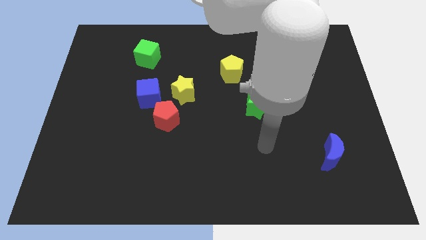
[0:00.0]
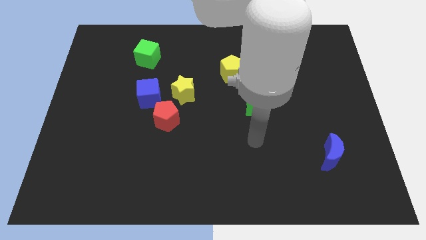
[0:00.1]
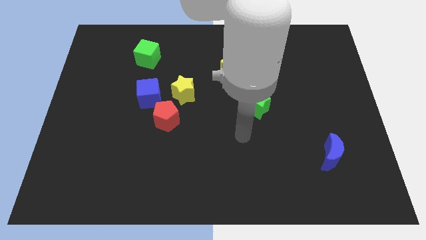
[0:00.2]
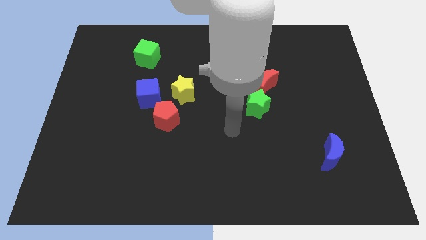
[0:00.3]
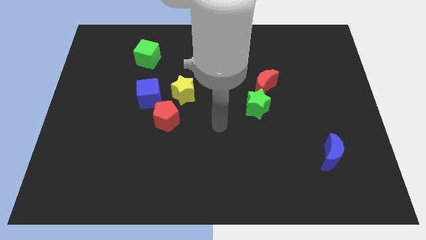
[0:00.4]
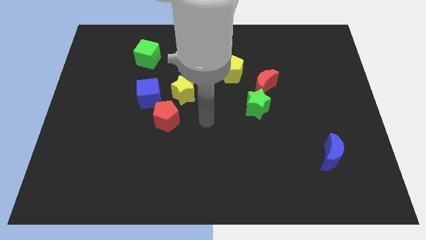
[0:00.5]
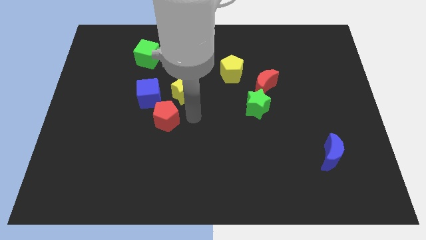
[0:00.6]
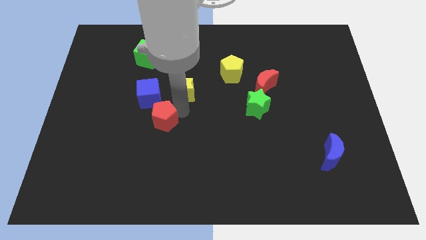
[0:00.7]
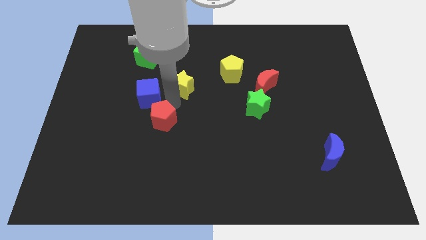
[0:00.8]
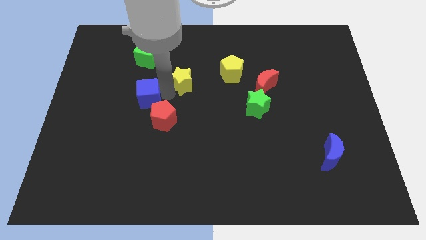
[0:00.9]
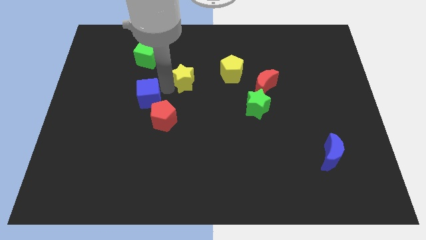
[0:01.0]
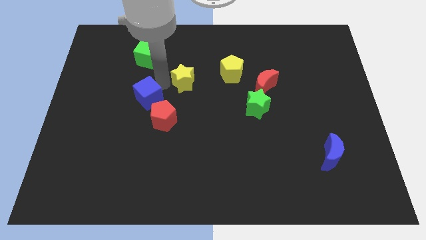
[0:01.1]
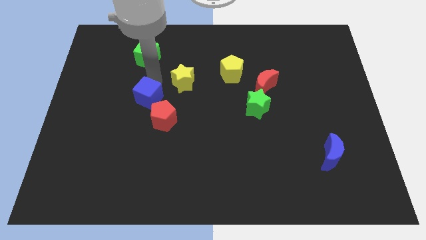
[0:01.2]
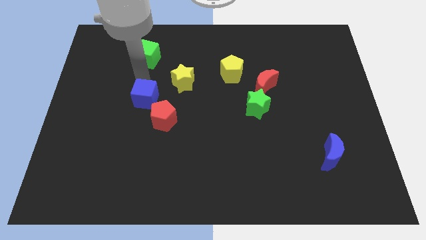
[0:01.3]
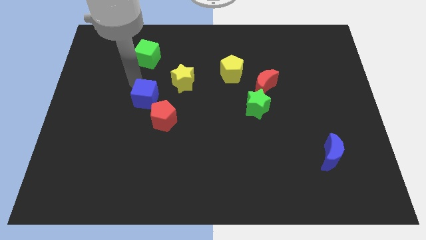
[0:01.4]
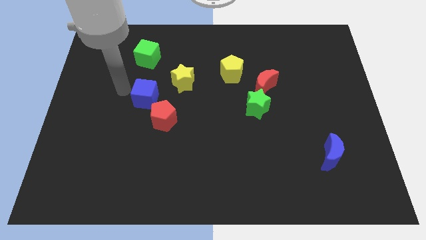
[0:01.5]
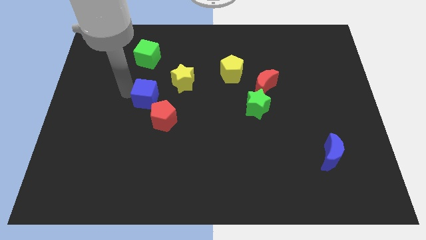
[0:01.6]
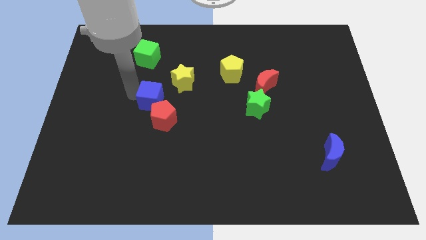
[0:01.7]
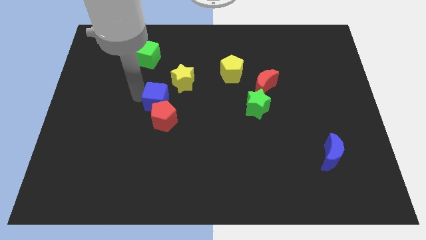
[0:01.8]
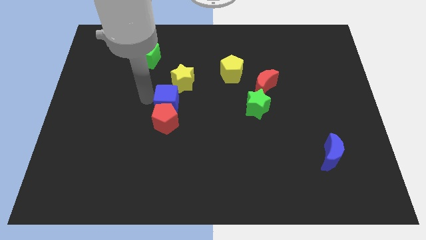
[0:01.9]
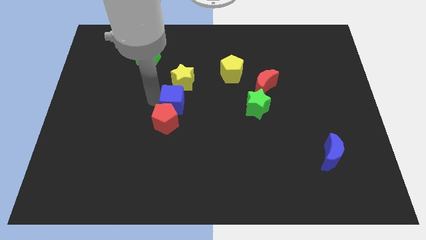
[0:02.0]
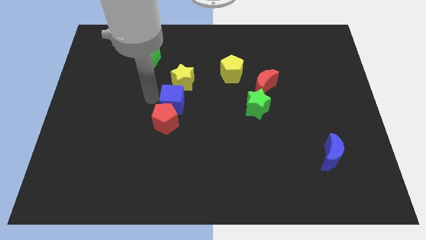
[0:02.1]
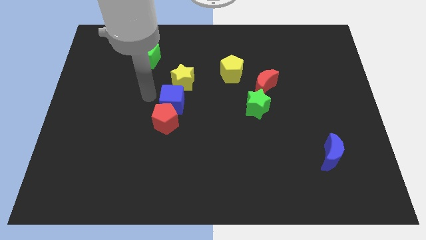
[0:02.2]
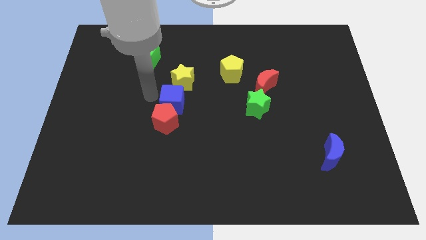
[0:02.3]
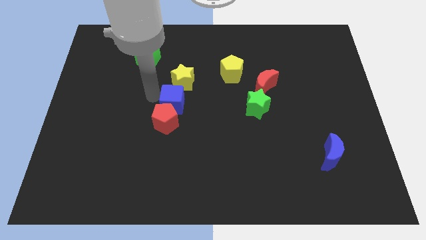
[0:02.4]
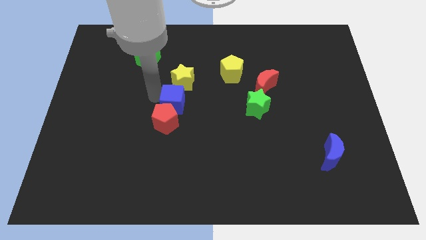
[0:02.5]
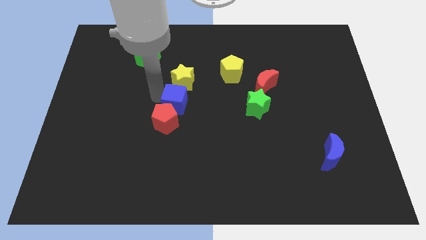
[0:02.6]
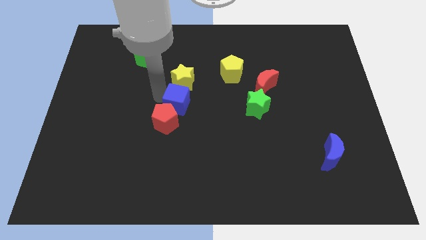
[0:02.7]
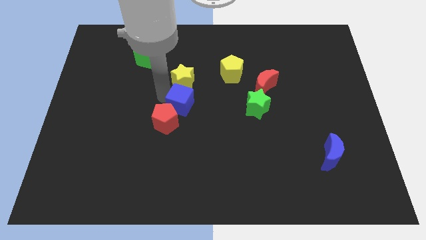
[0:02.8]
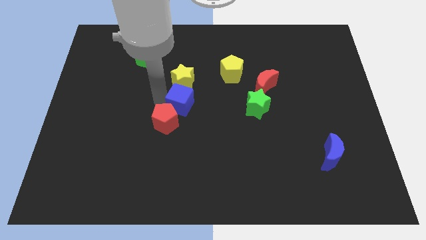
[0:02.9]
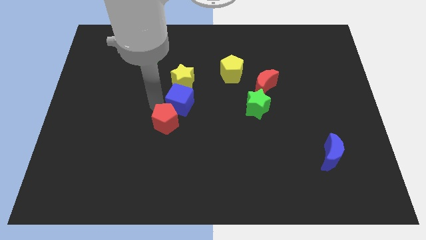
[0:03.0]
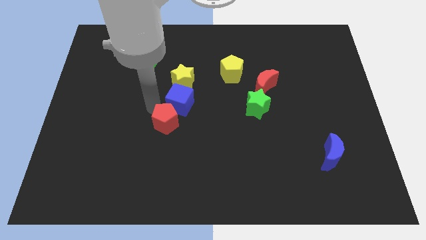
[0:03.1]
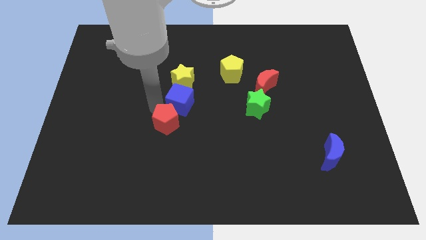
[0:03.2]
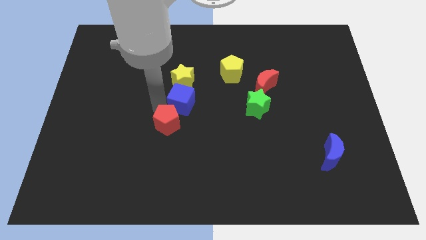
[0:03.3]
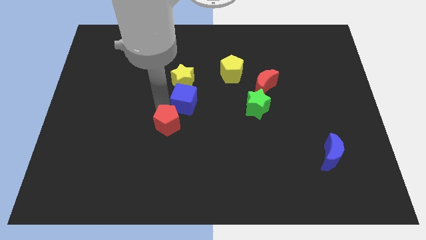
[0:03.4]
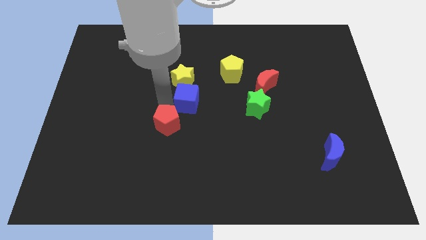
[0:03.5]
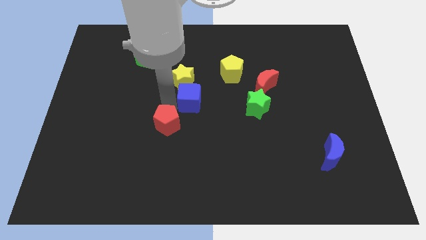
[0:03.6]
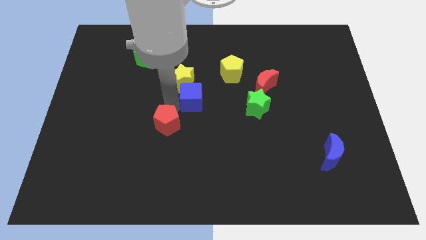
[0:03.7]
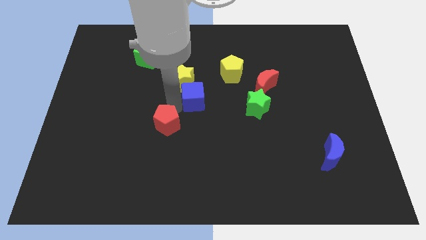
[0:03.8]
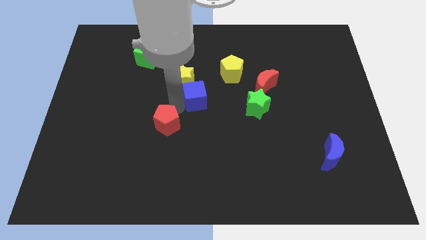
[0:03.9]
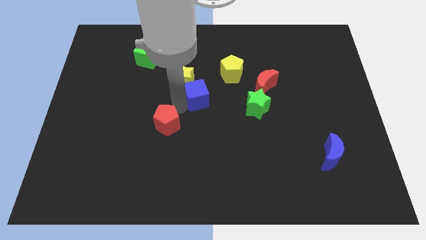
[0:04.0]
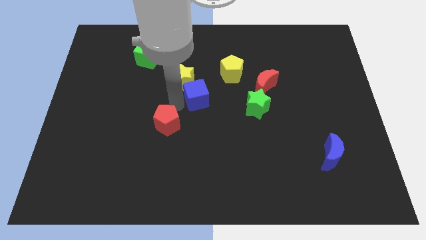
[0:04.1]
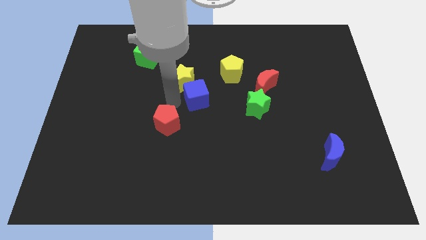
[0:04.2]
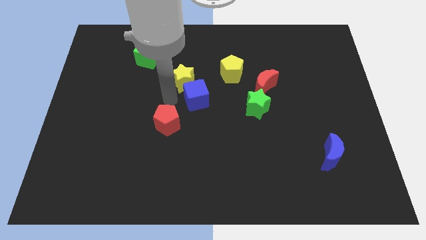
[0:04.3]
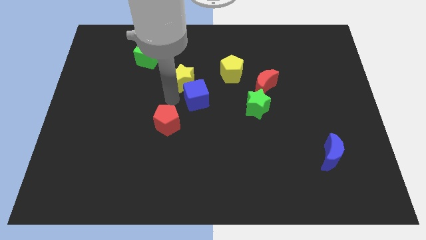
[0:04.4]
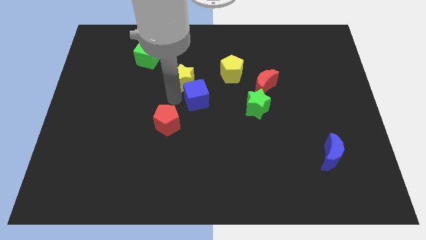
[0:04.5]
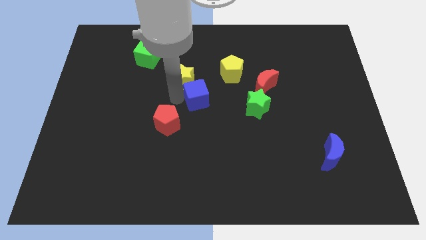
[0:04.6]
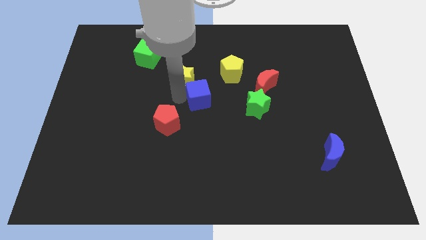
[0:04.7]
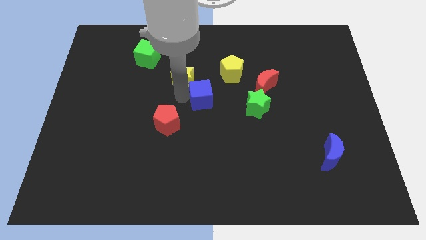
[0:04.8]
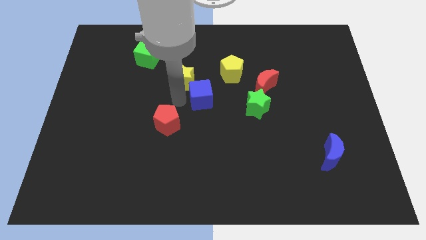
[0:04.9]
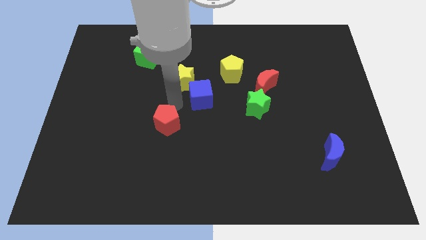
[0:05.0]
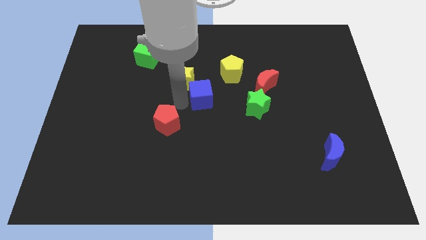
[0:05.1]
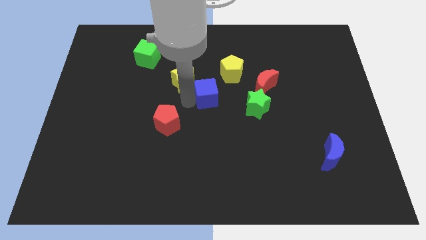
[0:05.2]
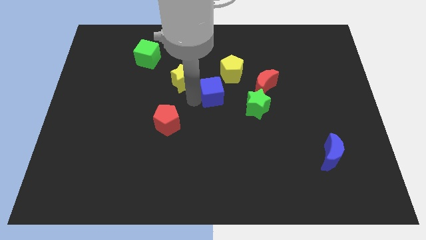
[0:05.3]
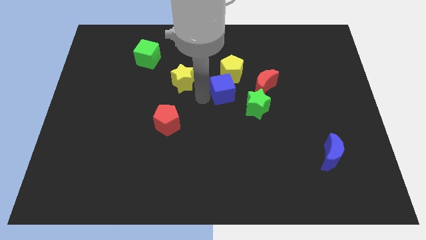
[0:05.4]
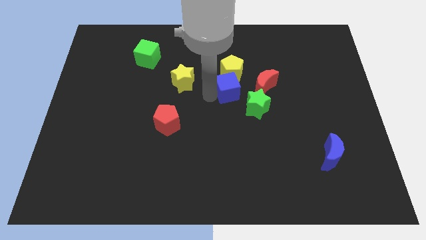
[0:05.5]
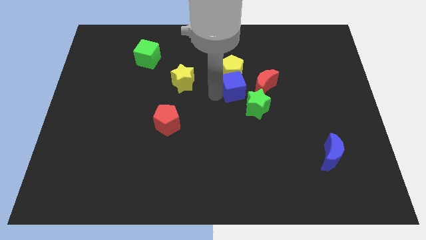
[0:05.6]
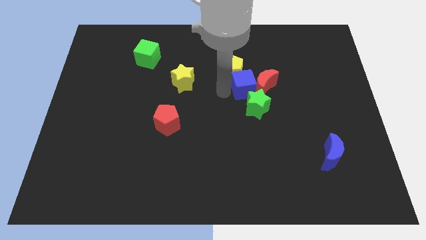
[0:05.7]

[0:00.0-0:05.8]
push the blue cube close to the red moon

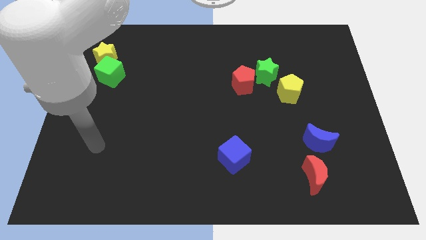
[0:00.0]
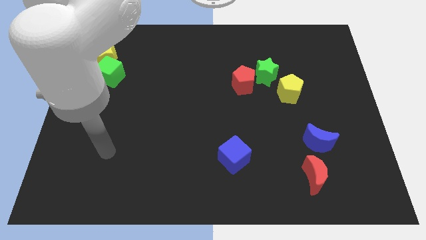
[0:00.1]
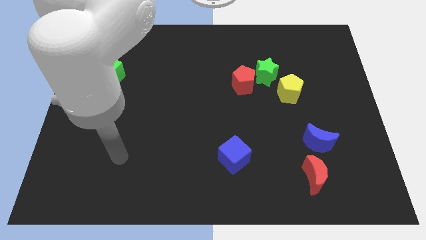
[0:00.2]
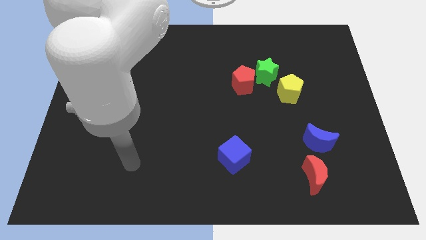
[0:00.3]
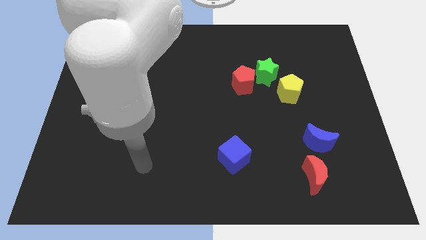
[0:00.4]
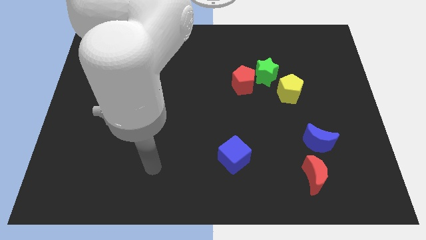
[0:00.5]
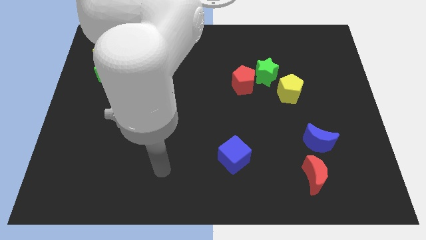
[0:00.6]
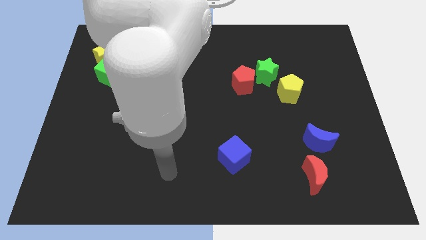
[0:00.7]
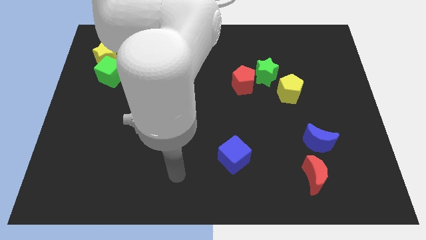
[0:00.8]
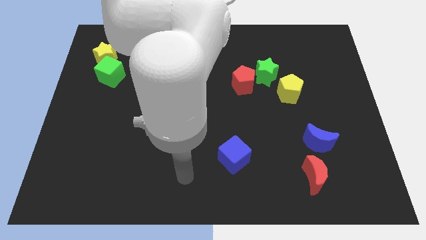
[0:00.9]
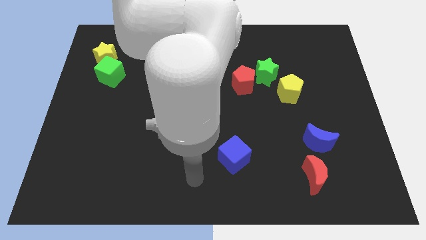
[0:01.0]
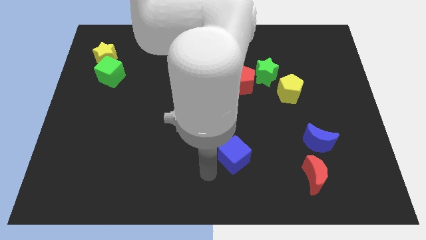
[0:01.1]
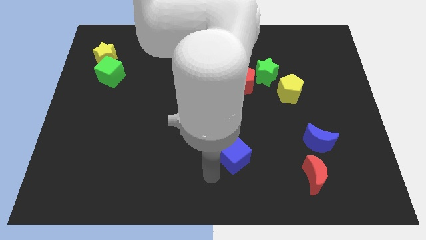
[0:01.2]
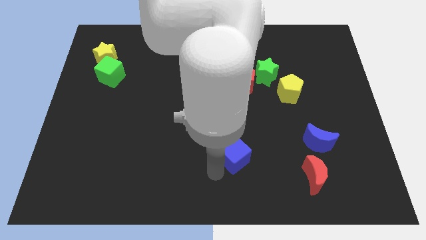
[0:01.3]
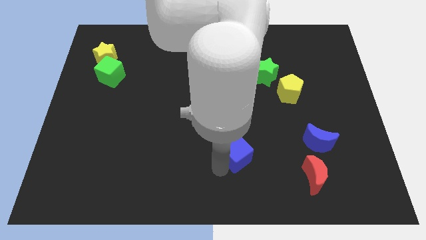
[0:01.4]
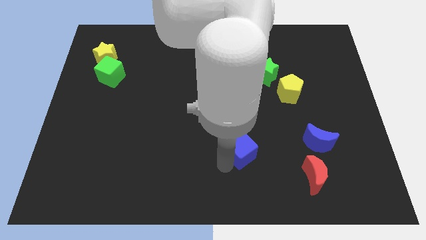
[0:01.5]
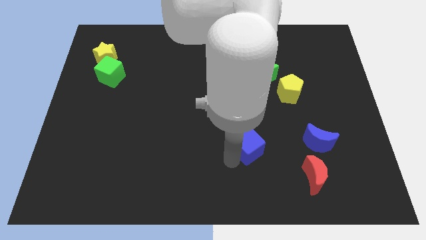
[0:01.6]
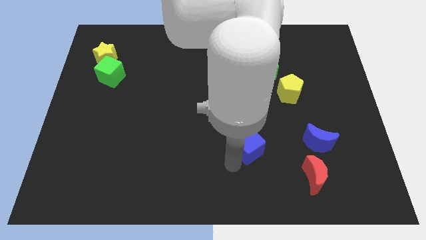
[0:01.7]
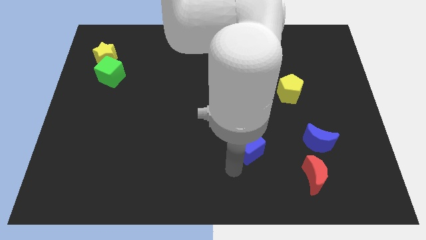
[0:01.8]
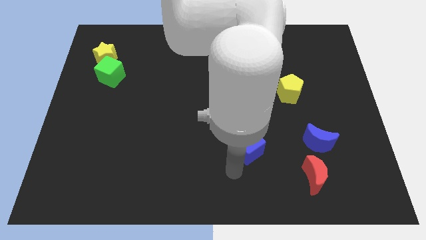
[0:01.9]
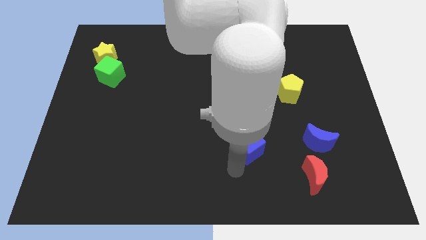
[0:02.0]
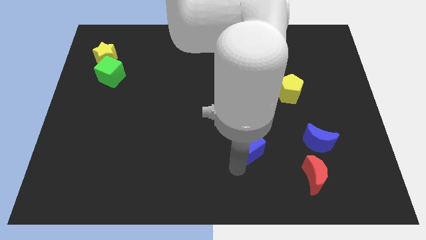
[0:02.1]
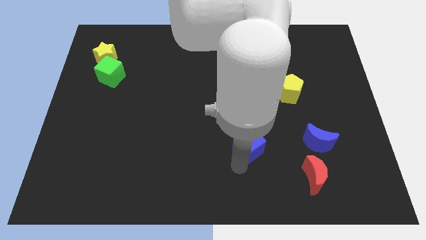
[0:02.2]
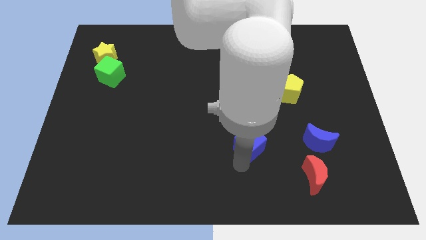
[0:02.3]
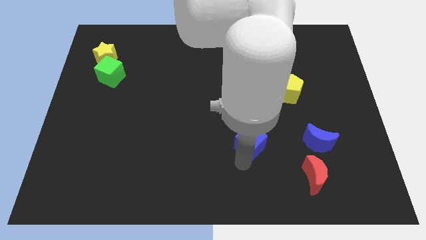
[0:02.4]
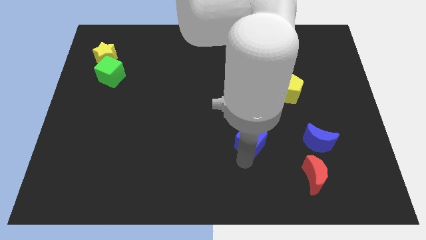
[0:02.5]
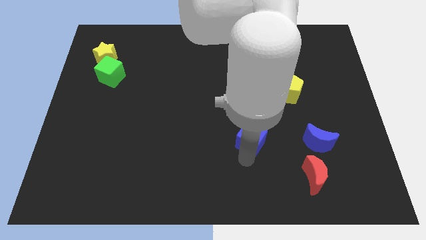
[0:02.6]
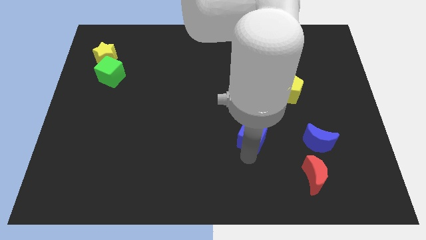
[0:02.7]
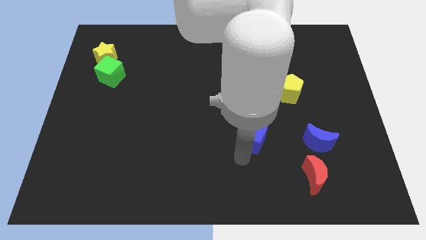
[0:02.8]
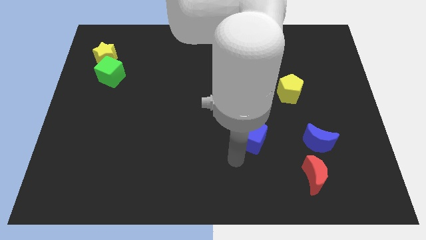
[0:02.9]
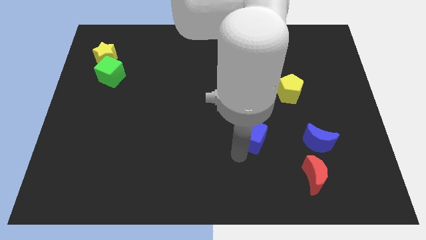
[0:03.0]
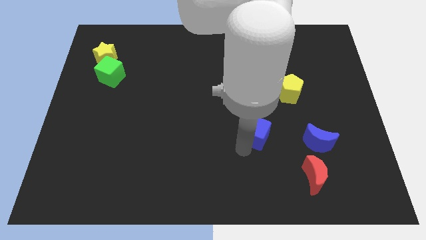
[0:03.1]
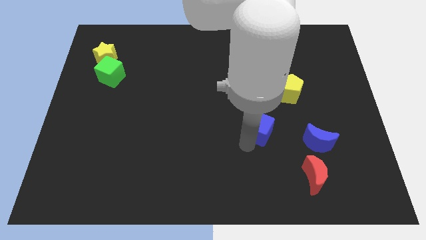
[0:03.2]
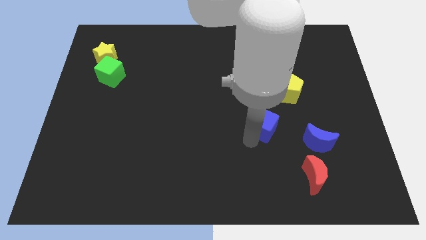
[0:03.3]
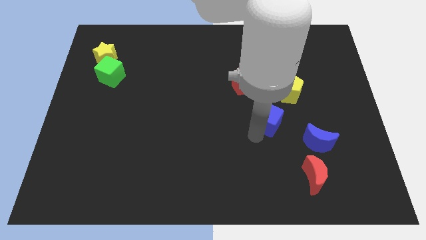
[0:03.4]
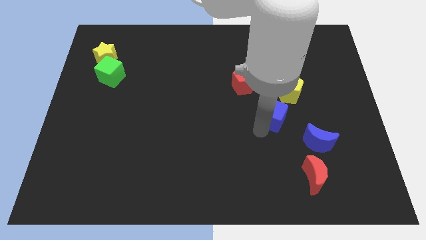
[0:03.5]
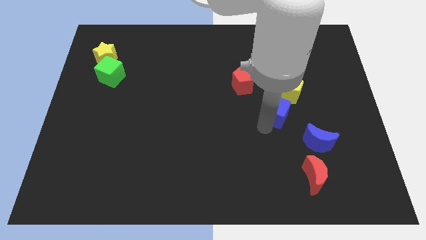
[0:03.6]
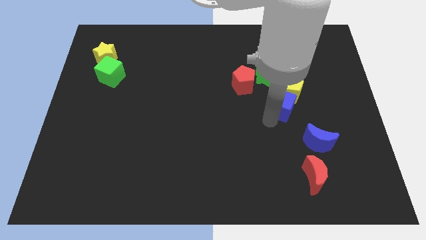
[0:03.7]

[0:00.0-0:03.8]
put the blue cube close to the yellow pentagon
